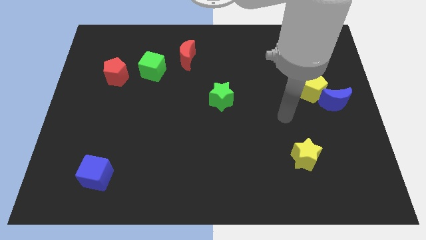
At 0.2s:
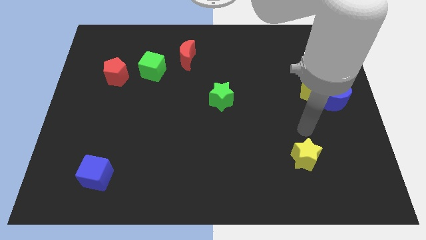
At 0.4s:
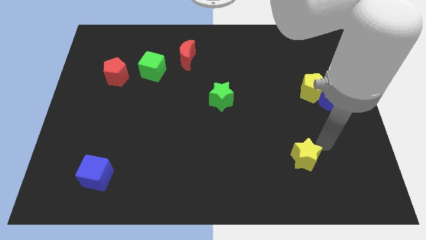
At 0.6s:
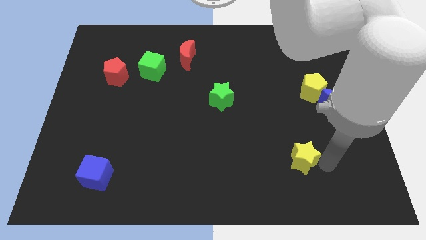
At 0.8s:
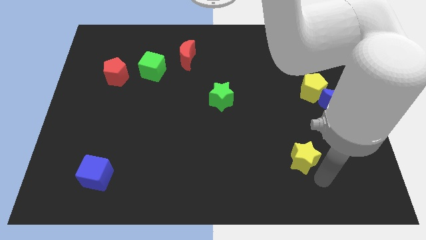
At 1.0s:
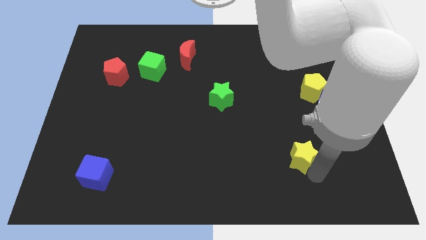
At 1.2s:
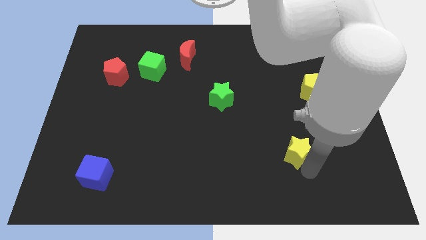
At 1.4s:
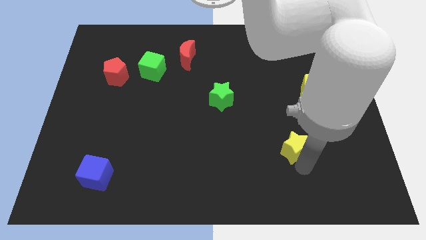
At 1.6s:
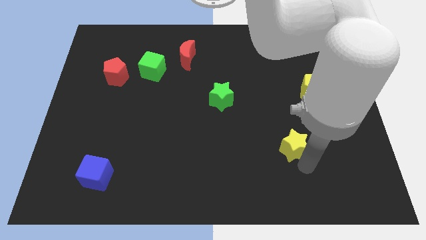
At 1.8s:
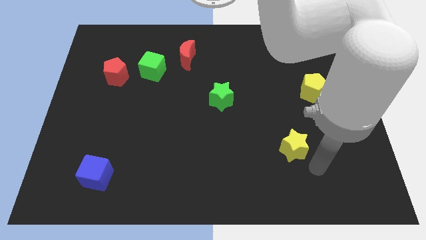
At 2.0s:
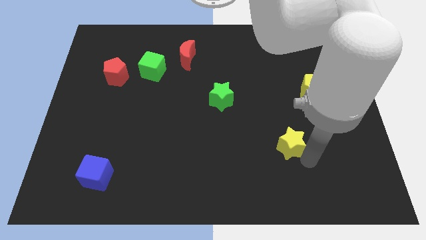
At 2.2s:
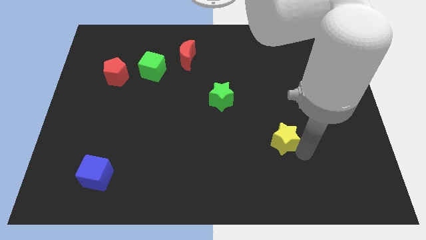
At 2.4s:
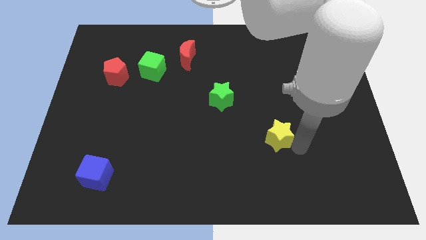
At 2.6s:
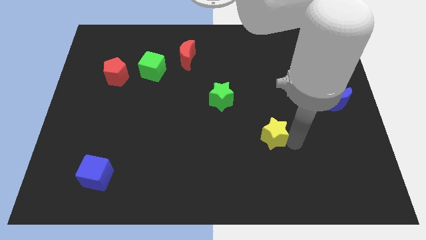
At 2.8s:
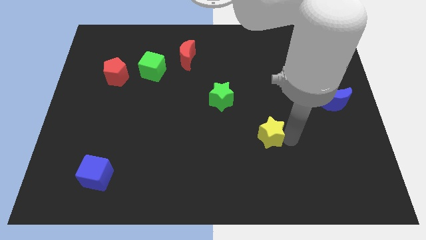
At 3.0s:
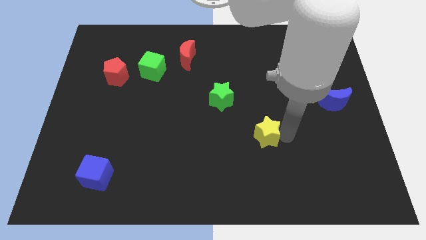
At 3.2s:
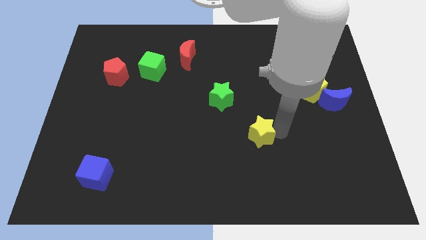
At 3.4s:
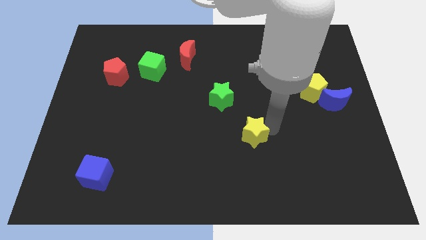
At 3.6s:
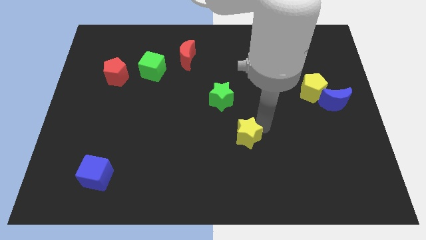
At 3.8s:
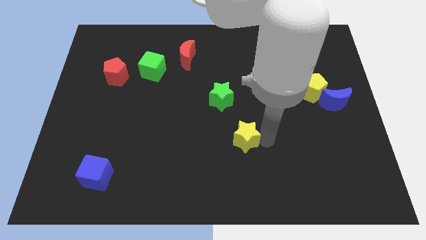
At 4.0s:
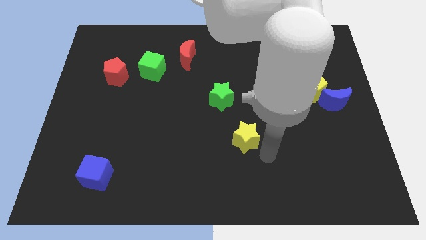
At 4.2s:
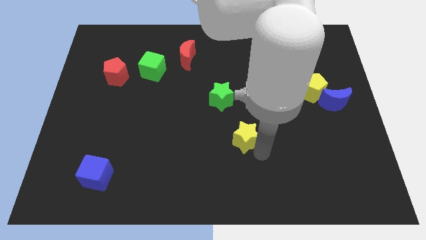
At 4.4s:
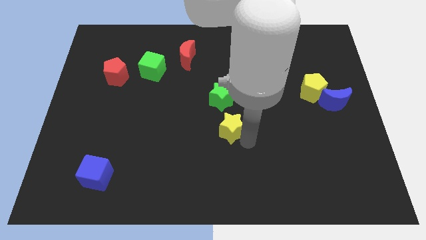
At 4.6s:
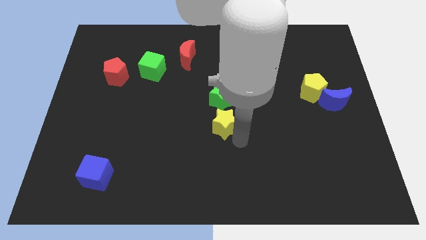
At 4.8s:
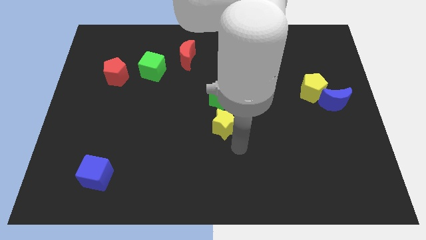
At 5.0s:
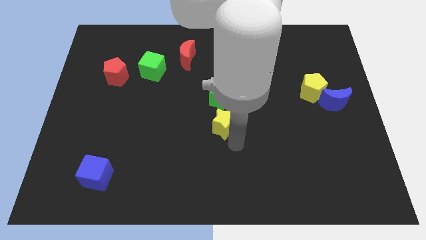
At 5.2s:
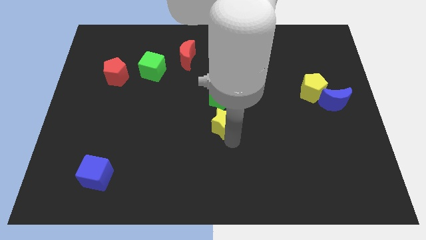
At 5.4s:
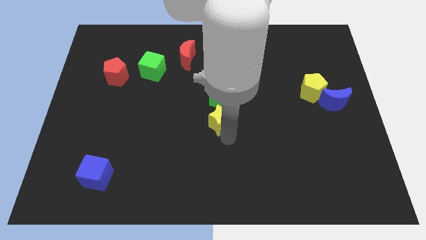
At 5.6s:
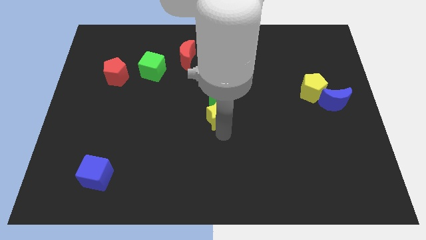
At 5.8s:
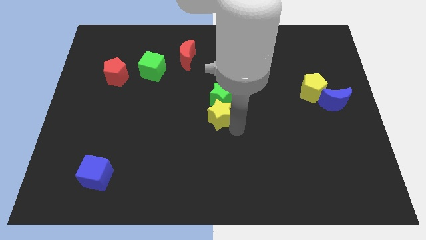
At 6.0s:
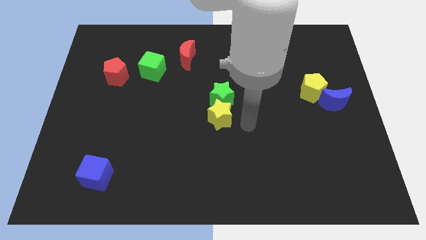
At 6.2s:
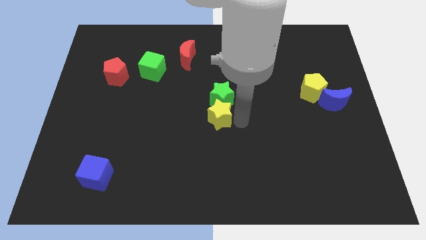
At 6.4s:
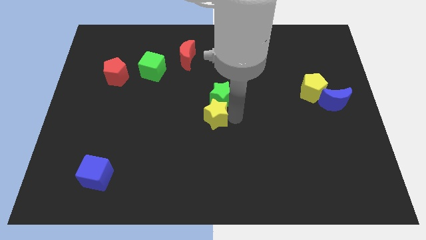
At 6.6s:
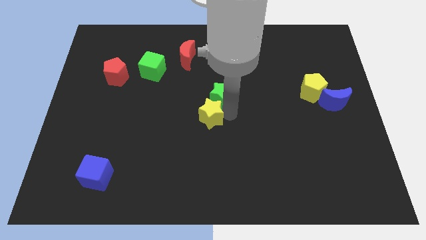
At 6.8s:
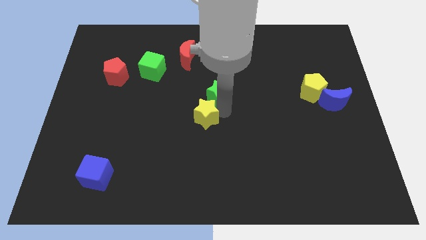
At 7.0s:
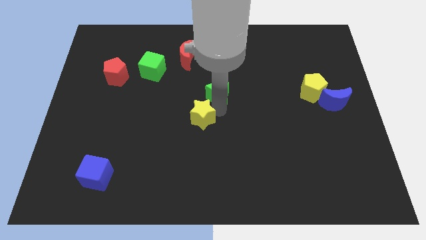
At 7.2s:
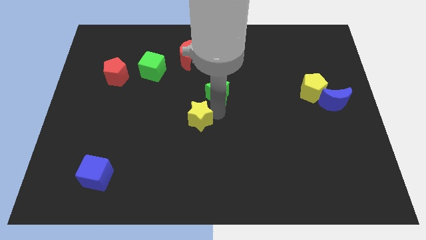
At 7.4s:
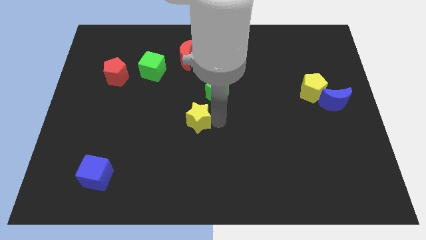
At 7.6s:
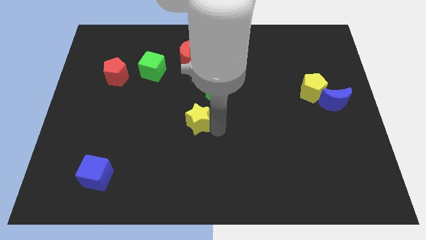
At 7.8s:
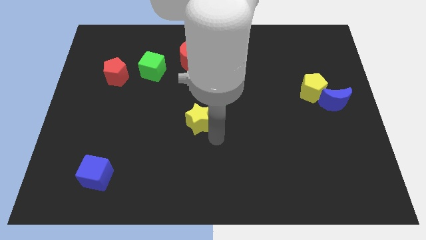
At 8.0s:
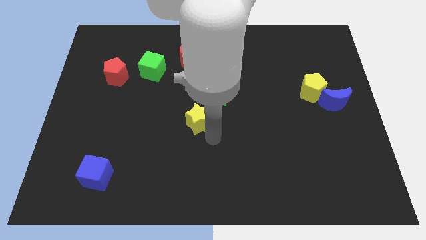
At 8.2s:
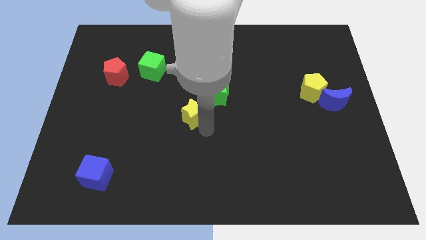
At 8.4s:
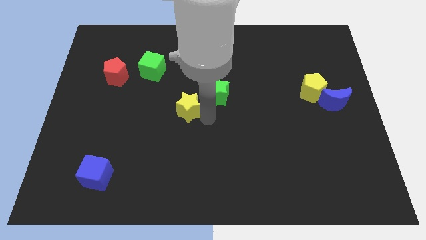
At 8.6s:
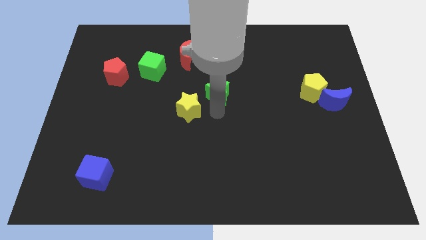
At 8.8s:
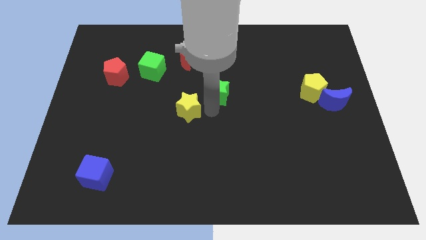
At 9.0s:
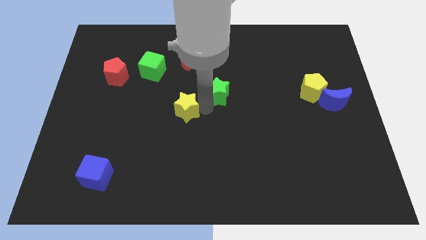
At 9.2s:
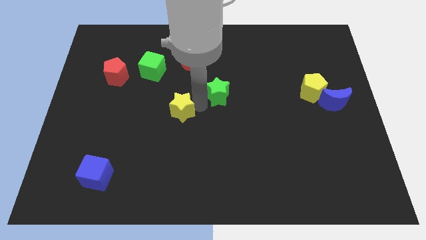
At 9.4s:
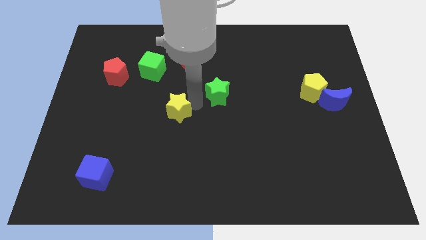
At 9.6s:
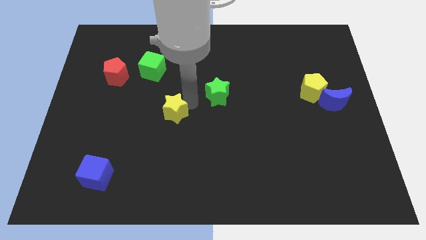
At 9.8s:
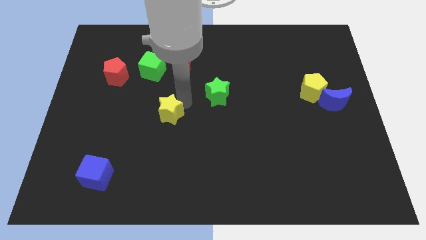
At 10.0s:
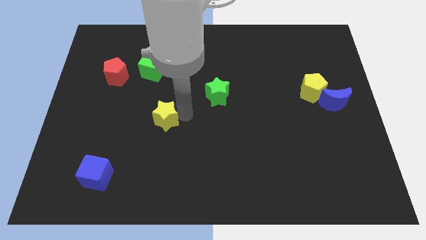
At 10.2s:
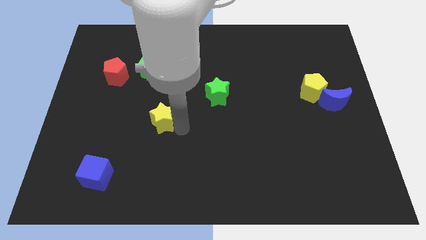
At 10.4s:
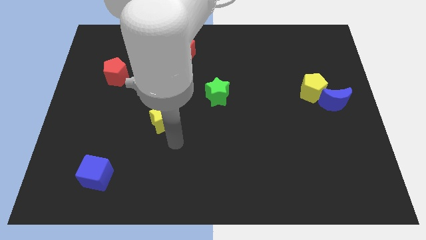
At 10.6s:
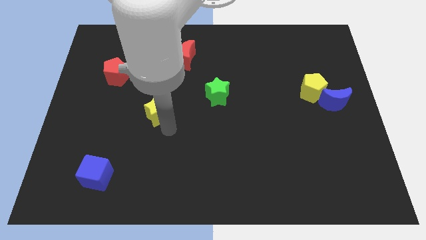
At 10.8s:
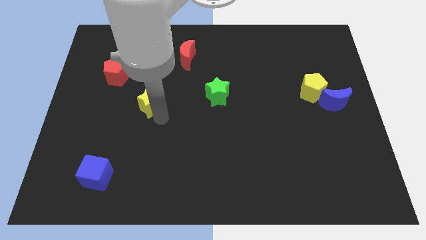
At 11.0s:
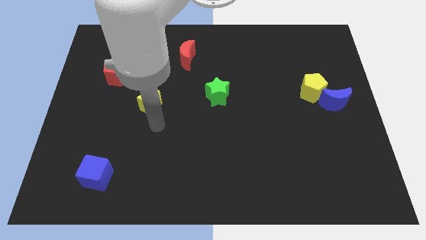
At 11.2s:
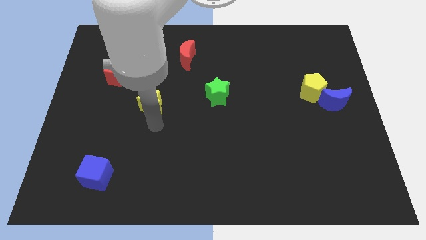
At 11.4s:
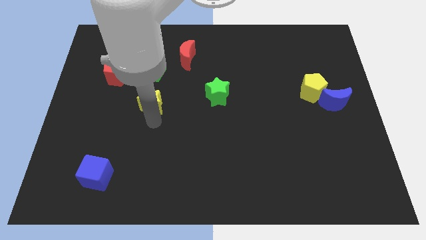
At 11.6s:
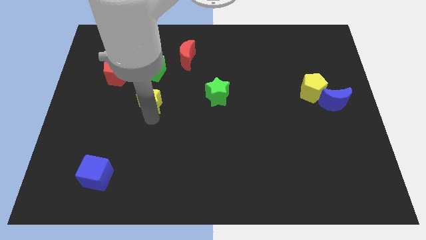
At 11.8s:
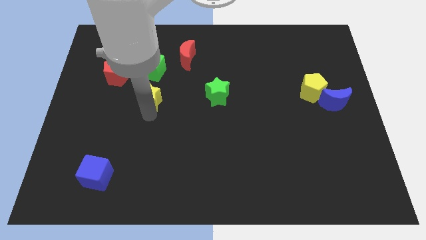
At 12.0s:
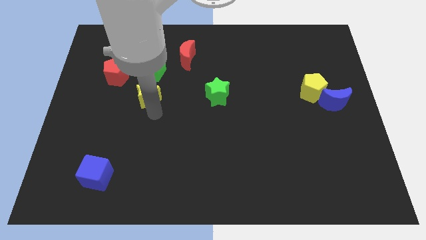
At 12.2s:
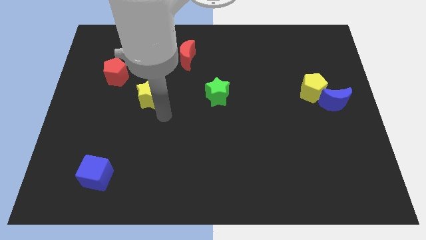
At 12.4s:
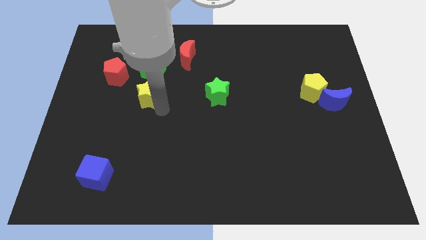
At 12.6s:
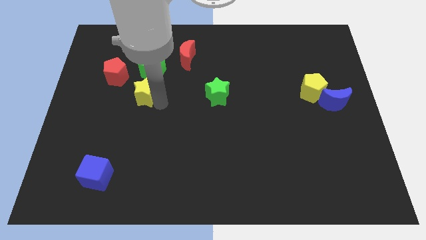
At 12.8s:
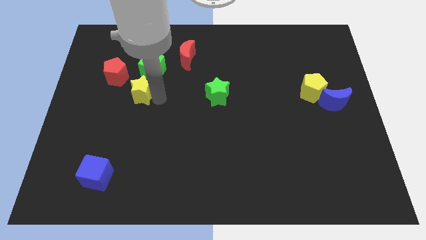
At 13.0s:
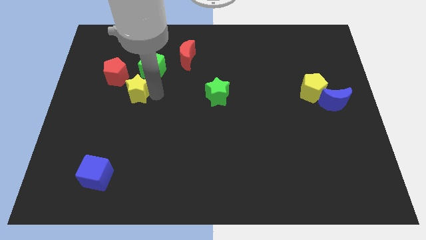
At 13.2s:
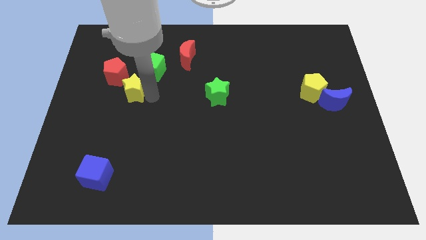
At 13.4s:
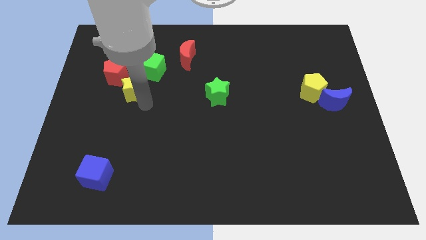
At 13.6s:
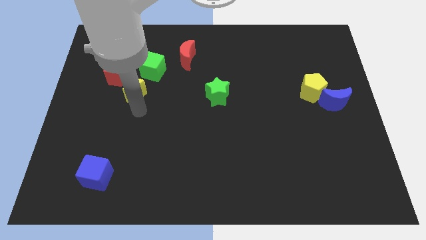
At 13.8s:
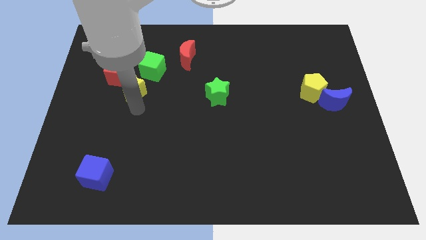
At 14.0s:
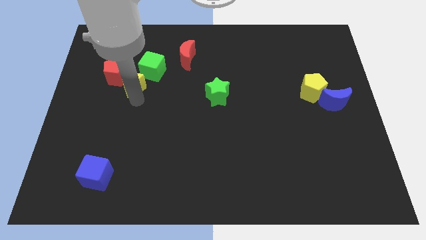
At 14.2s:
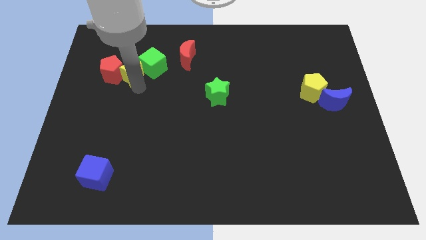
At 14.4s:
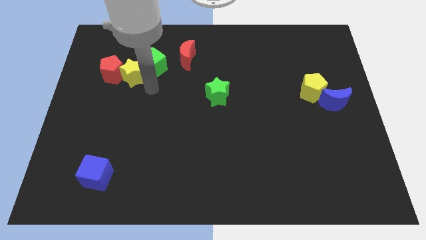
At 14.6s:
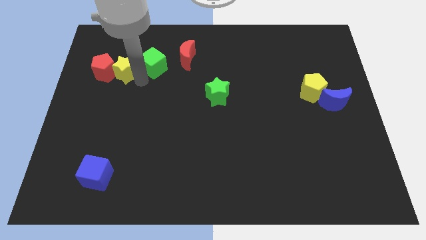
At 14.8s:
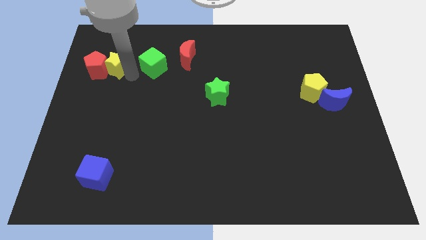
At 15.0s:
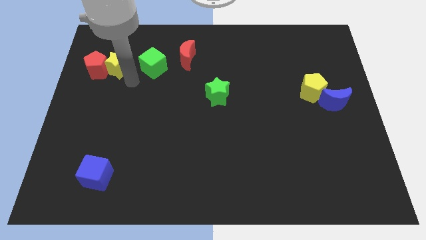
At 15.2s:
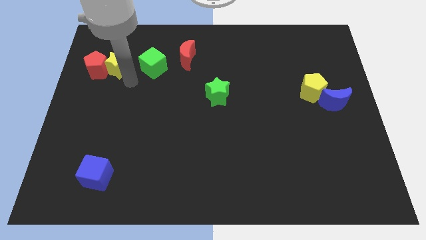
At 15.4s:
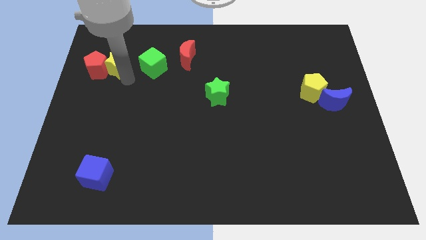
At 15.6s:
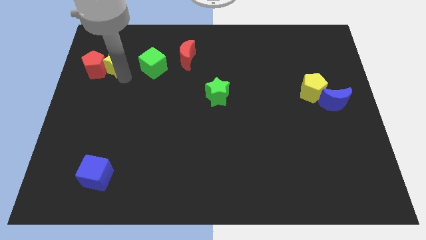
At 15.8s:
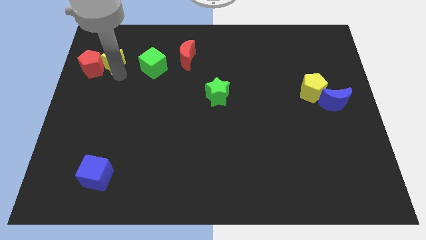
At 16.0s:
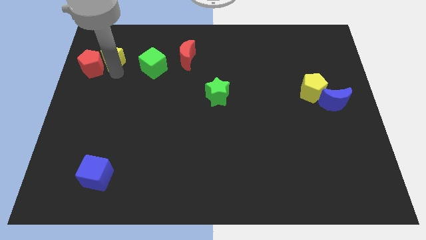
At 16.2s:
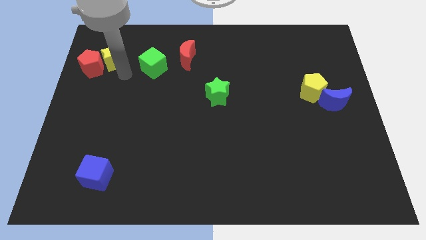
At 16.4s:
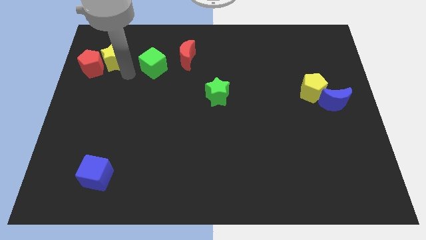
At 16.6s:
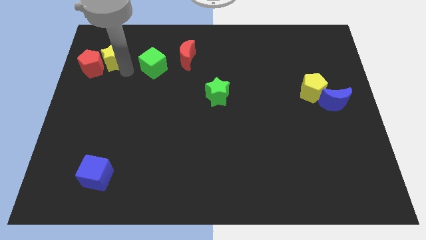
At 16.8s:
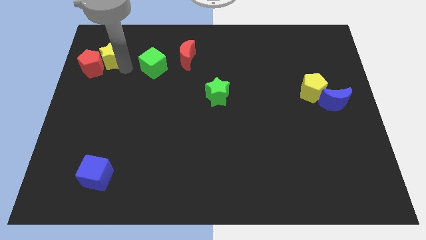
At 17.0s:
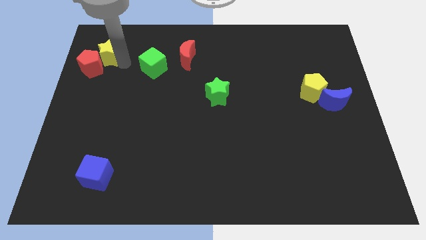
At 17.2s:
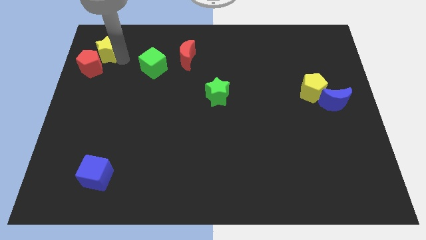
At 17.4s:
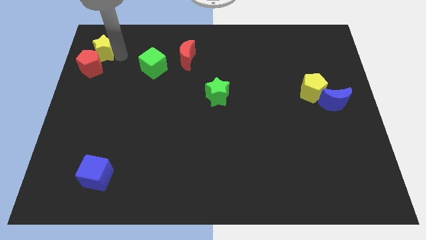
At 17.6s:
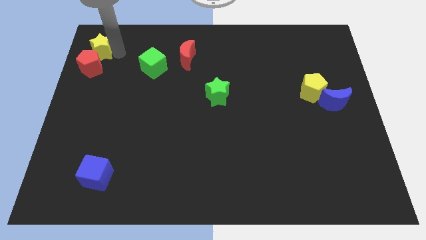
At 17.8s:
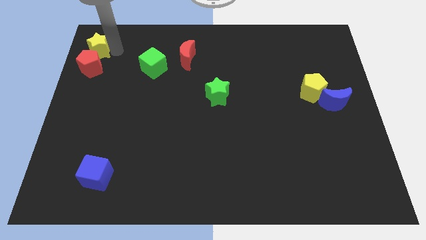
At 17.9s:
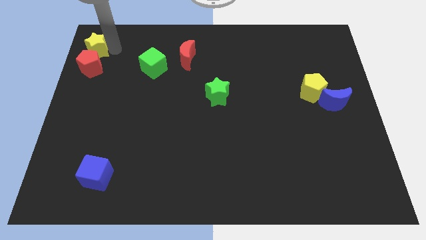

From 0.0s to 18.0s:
push the yellow star to the top left
